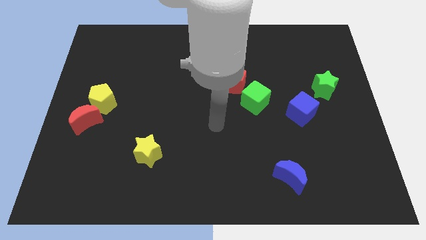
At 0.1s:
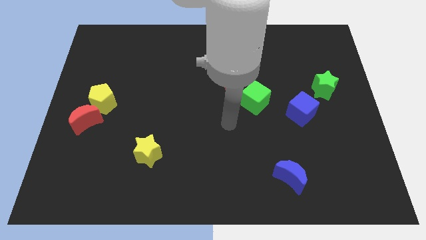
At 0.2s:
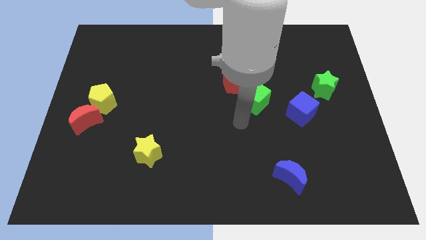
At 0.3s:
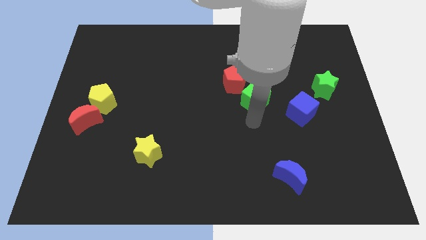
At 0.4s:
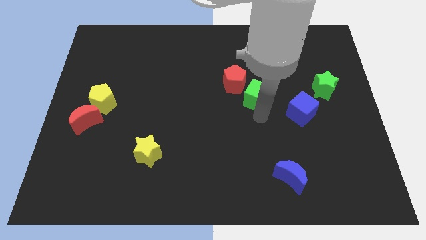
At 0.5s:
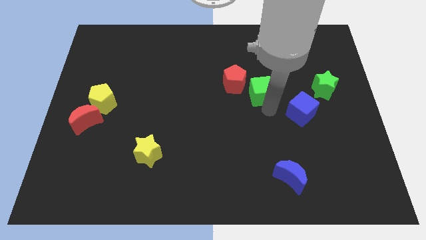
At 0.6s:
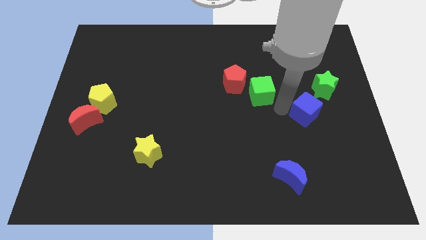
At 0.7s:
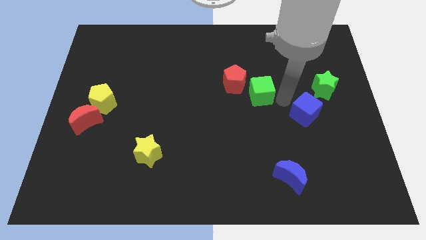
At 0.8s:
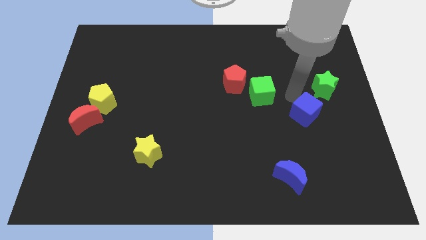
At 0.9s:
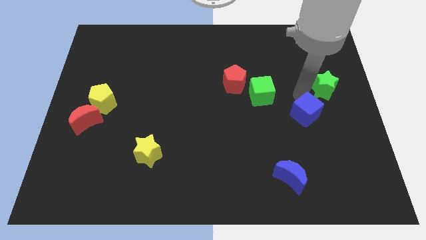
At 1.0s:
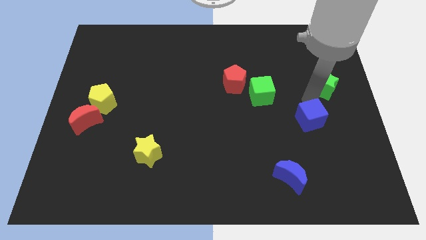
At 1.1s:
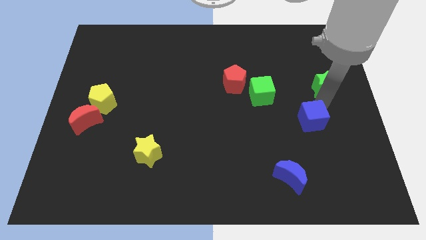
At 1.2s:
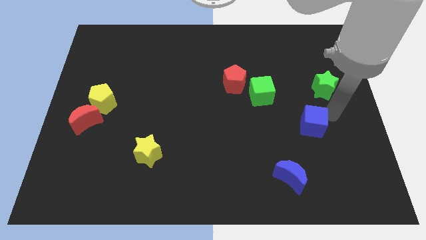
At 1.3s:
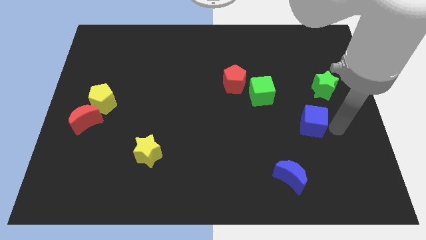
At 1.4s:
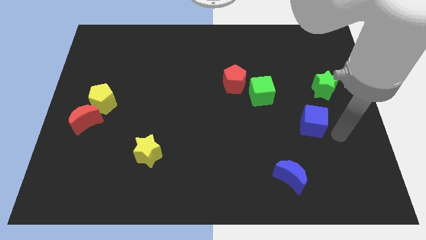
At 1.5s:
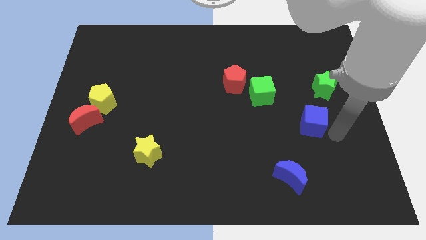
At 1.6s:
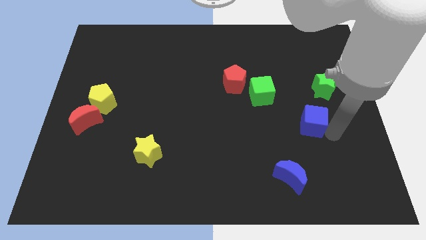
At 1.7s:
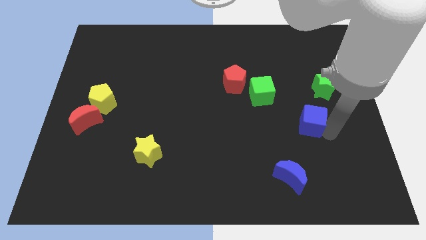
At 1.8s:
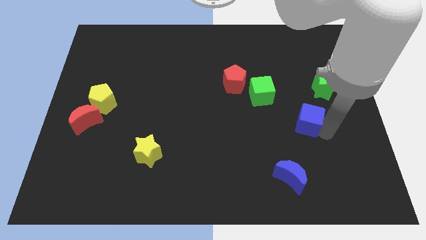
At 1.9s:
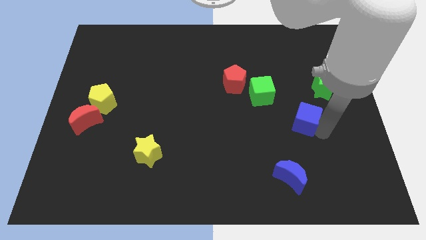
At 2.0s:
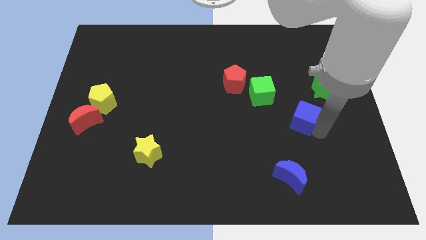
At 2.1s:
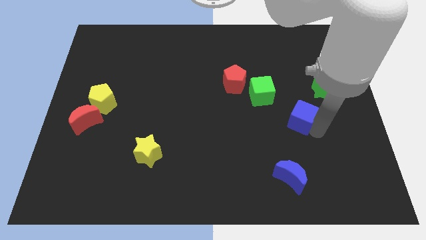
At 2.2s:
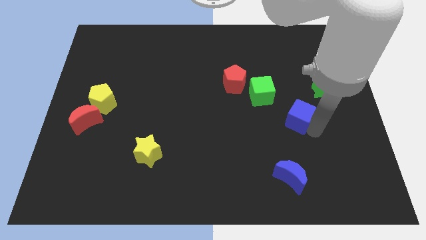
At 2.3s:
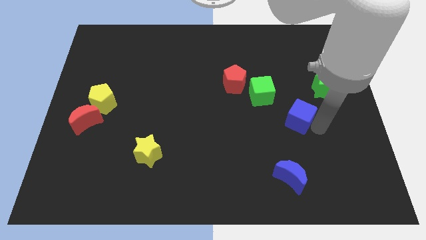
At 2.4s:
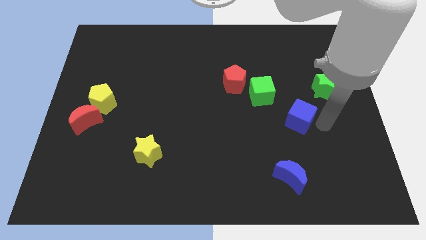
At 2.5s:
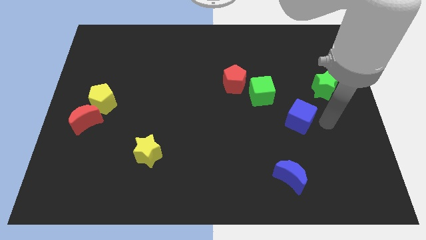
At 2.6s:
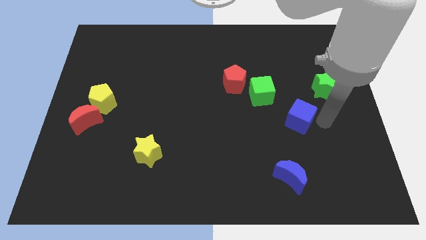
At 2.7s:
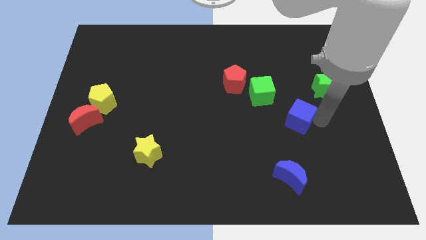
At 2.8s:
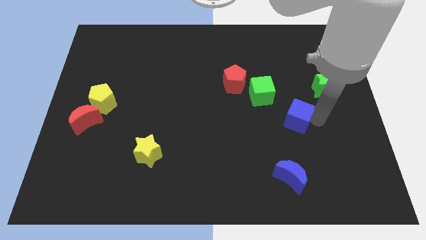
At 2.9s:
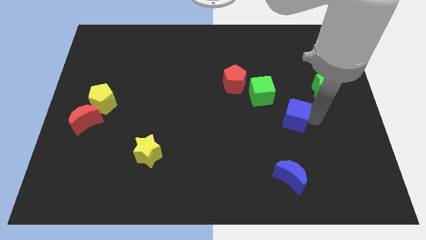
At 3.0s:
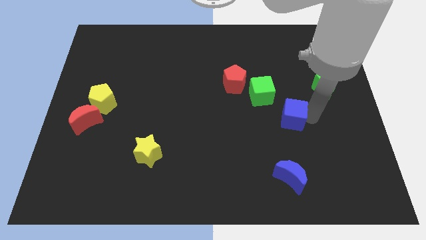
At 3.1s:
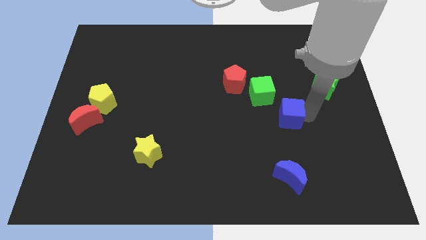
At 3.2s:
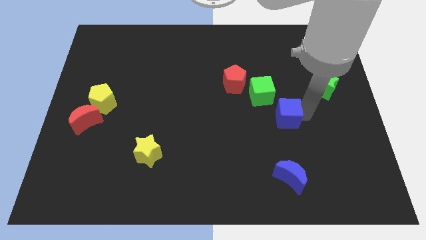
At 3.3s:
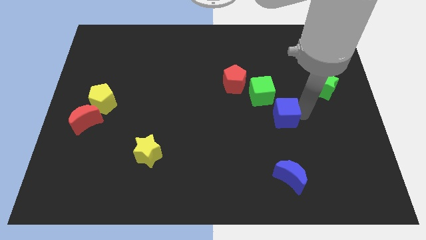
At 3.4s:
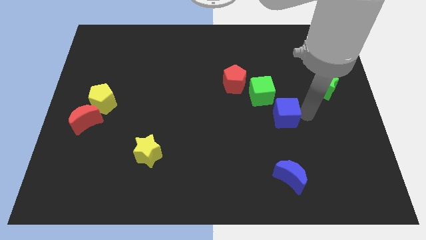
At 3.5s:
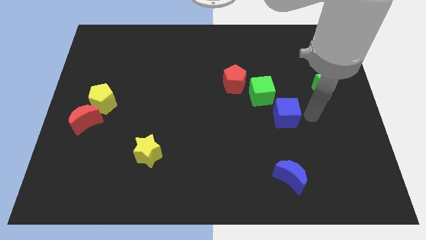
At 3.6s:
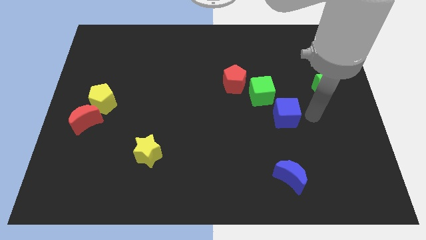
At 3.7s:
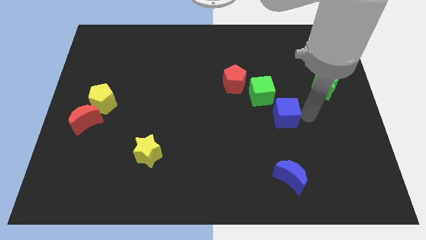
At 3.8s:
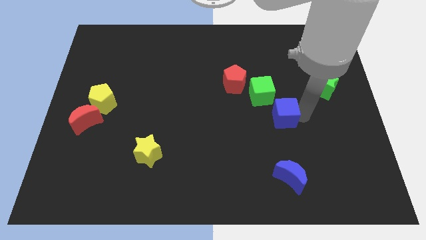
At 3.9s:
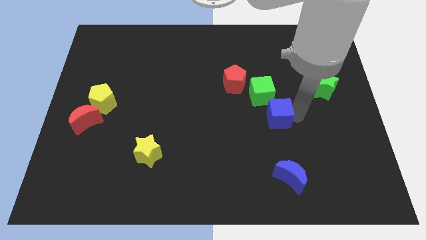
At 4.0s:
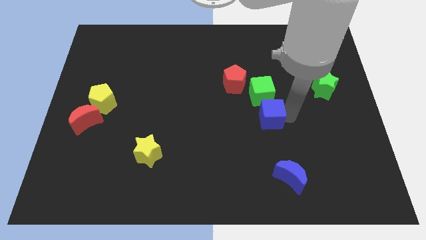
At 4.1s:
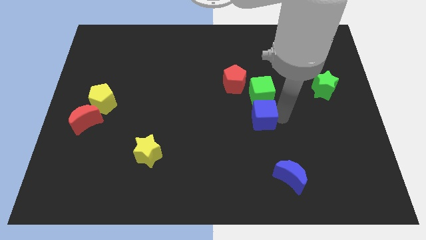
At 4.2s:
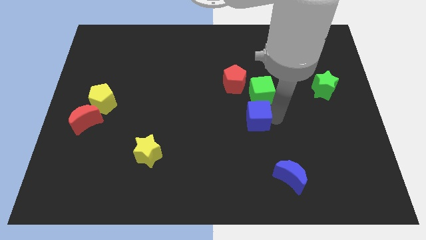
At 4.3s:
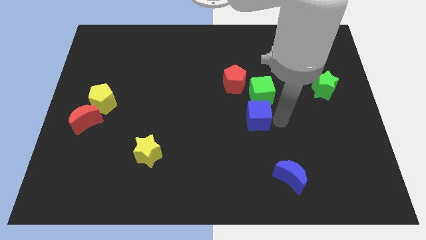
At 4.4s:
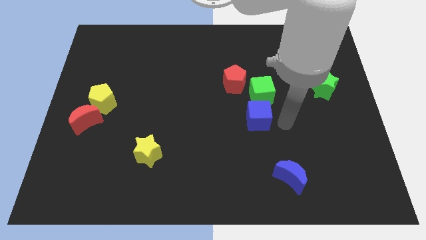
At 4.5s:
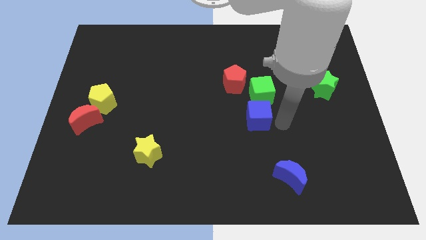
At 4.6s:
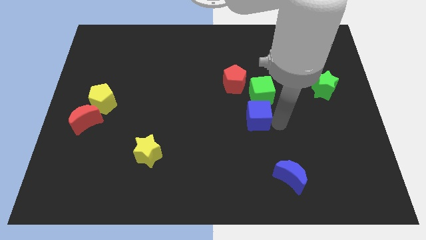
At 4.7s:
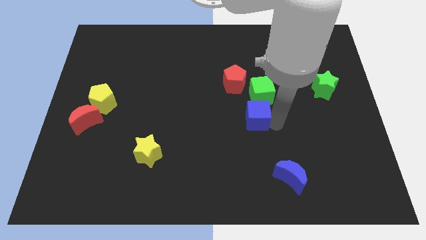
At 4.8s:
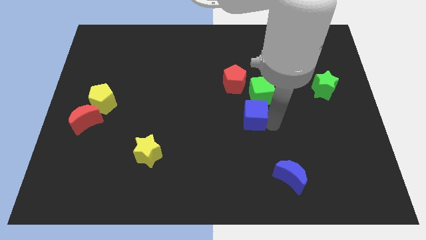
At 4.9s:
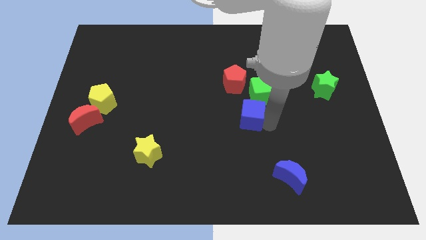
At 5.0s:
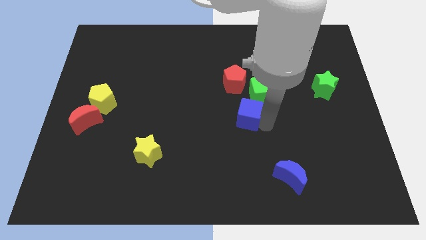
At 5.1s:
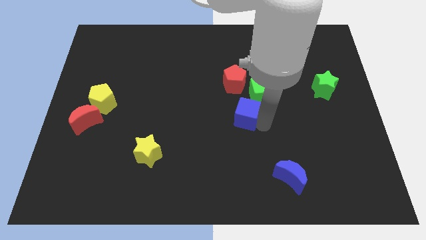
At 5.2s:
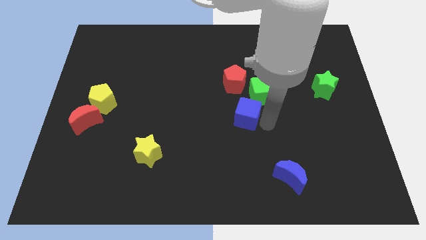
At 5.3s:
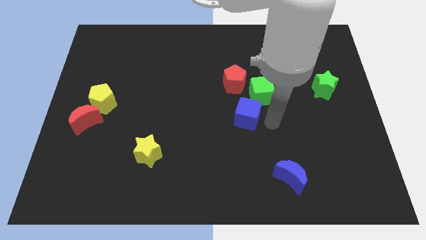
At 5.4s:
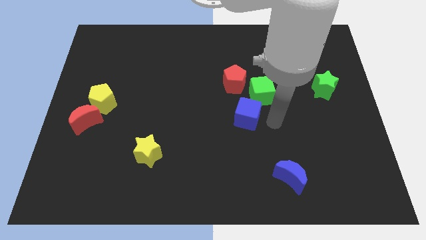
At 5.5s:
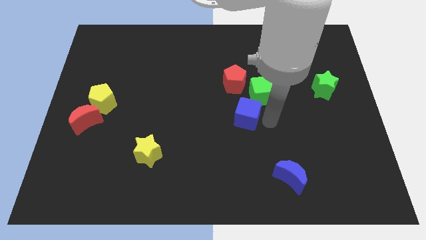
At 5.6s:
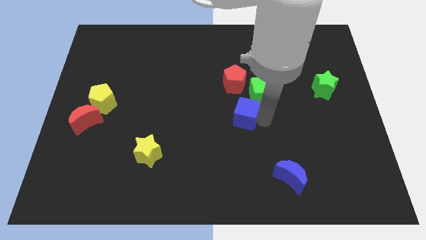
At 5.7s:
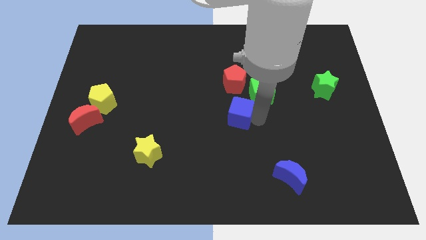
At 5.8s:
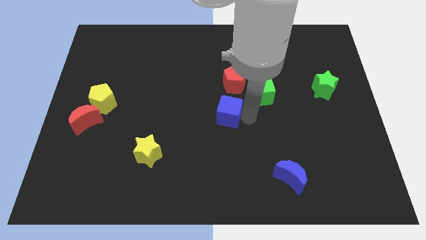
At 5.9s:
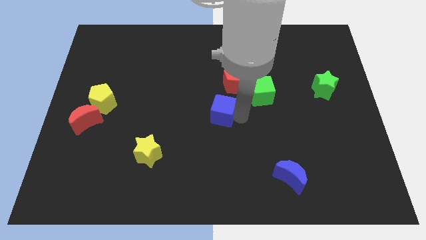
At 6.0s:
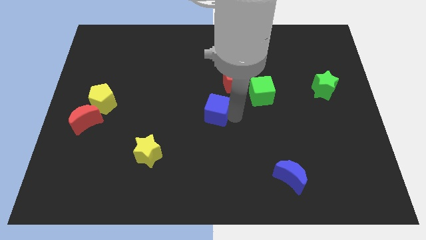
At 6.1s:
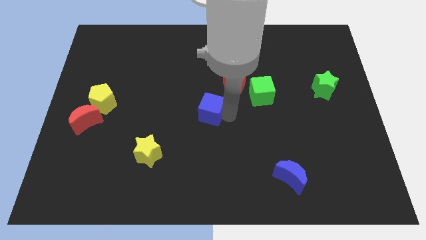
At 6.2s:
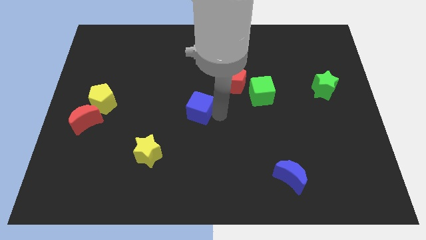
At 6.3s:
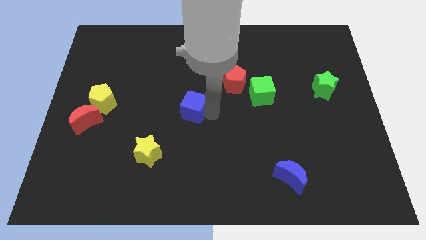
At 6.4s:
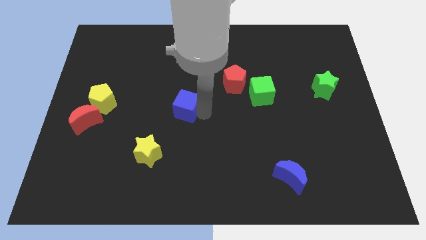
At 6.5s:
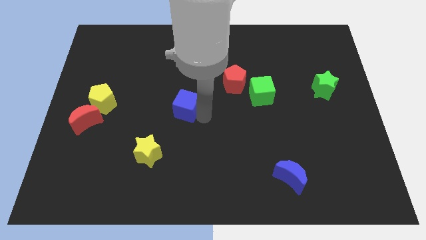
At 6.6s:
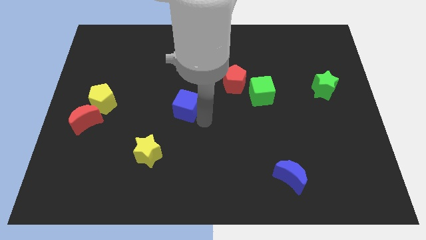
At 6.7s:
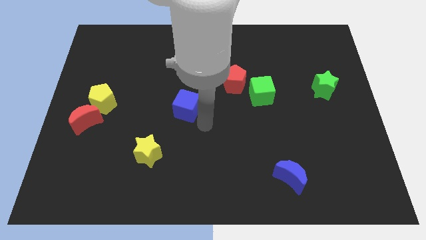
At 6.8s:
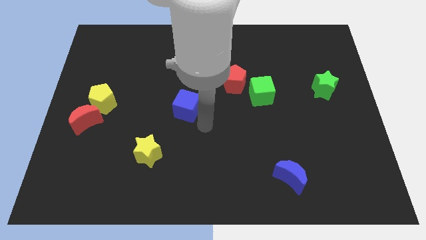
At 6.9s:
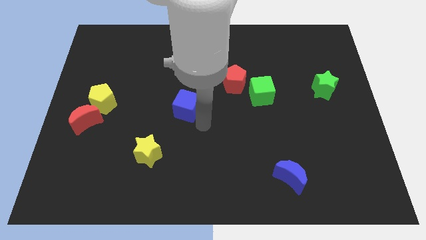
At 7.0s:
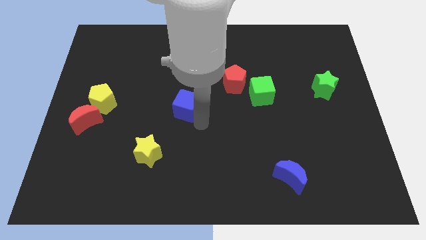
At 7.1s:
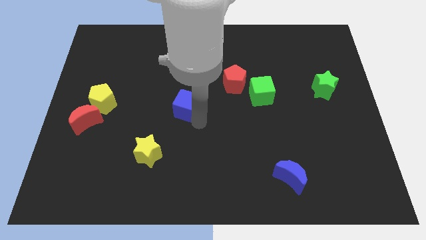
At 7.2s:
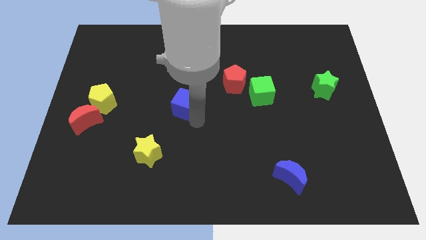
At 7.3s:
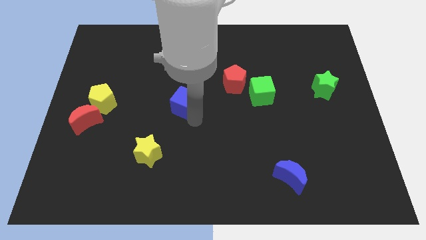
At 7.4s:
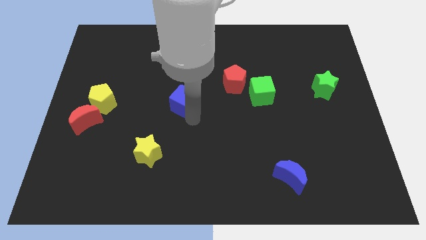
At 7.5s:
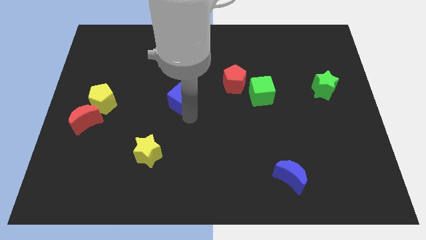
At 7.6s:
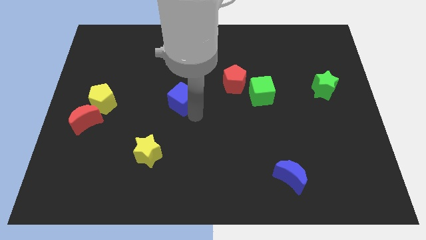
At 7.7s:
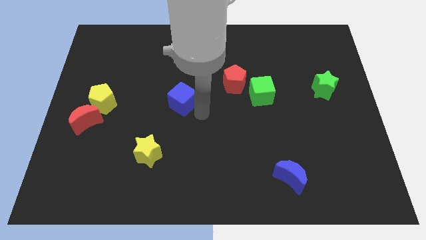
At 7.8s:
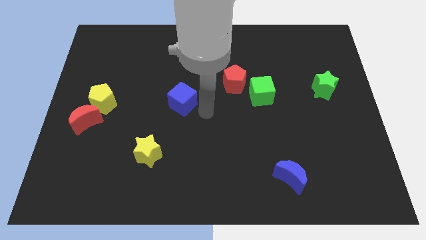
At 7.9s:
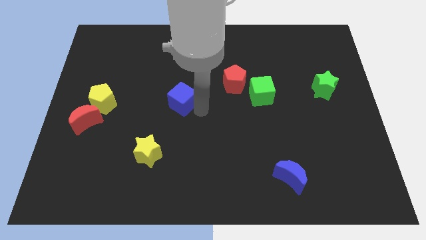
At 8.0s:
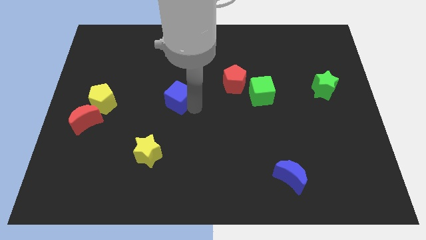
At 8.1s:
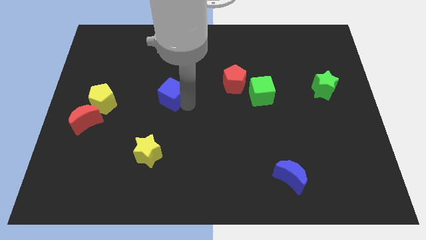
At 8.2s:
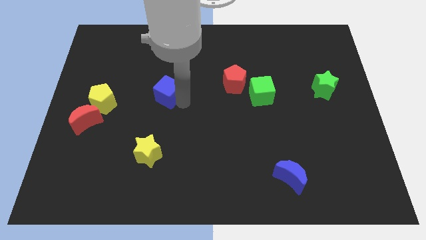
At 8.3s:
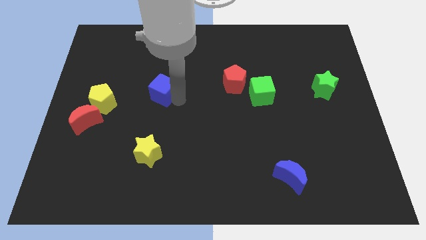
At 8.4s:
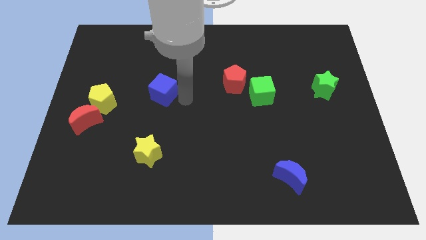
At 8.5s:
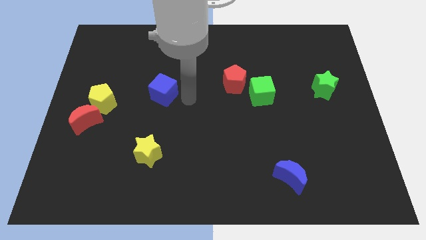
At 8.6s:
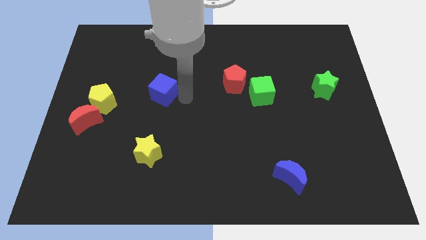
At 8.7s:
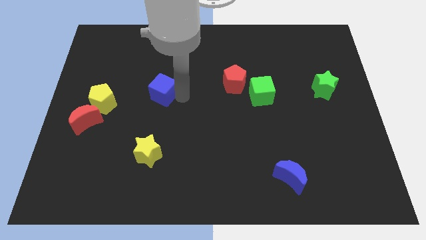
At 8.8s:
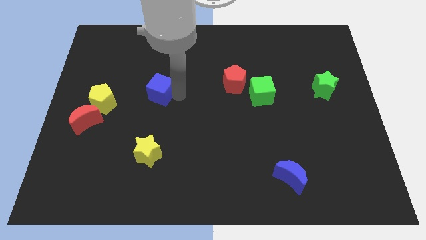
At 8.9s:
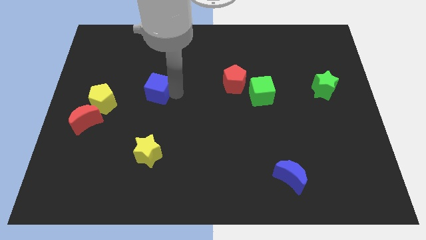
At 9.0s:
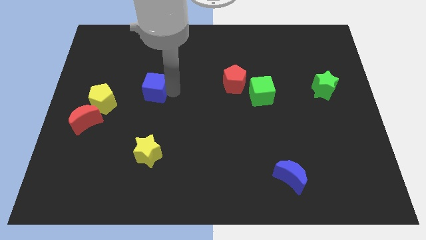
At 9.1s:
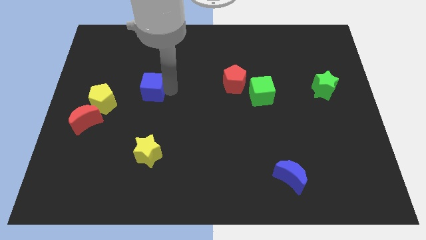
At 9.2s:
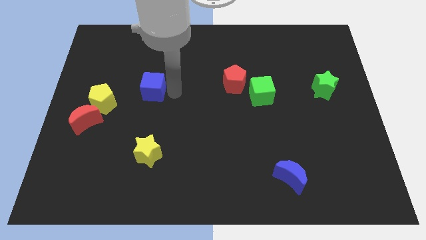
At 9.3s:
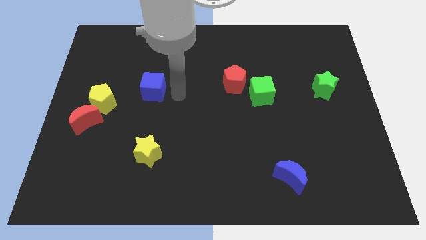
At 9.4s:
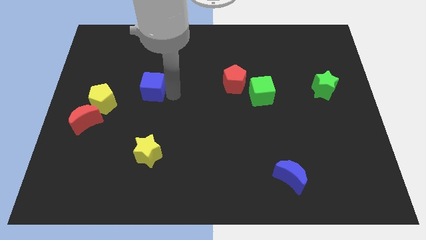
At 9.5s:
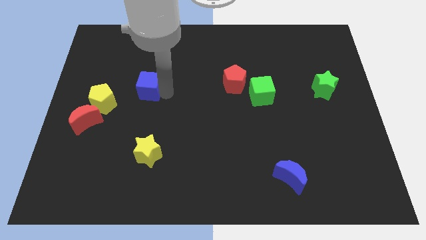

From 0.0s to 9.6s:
push the blue cube diagonally up and to the right of the yellow pentagon
